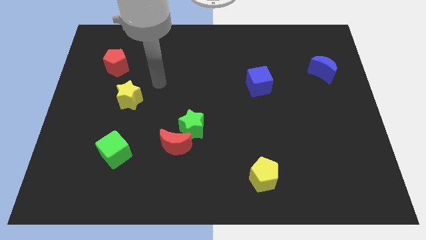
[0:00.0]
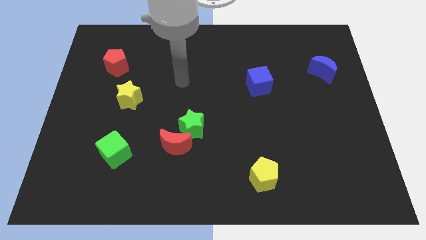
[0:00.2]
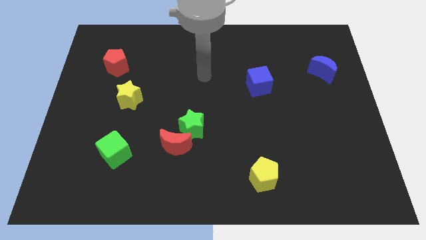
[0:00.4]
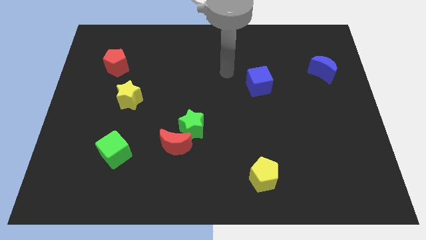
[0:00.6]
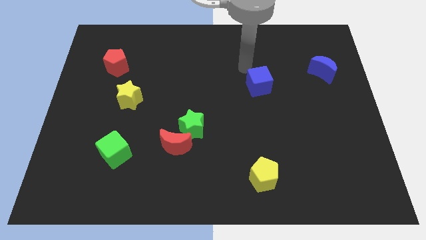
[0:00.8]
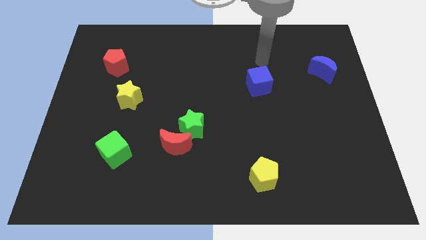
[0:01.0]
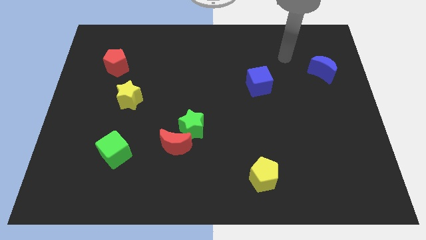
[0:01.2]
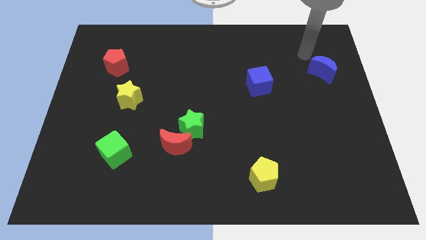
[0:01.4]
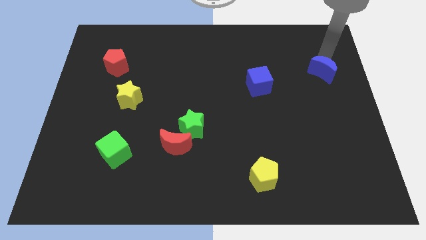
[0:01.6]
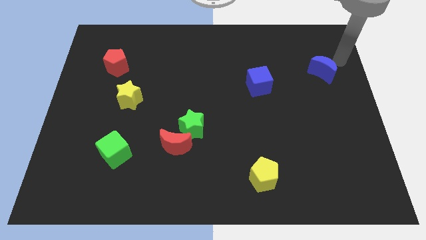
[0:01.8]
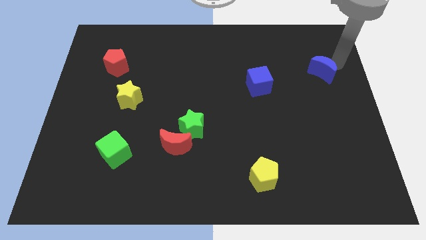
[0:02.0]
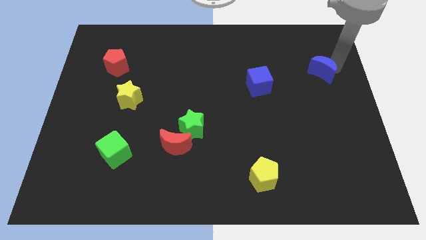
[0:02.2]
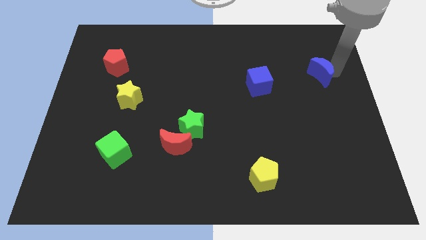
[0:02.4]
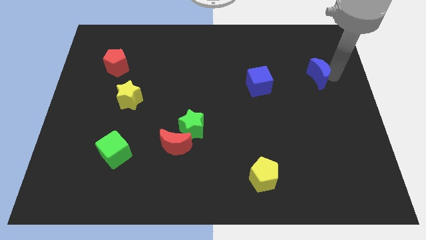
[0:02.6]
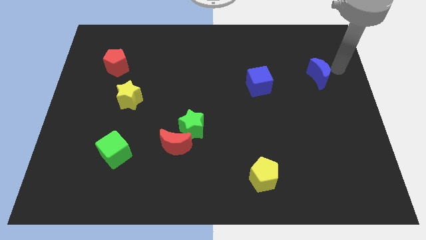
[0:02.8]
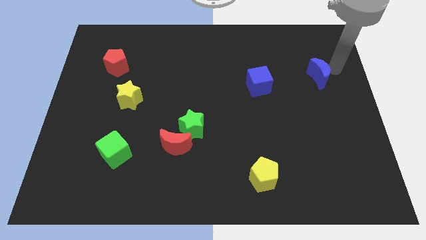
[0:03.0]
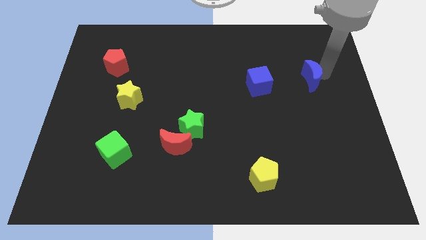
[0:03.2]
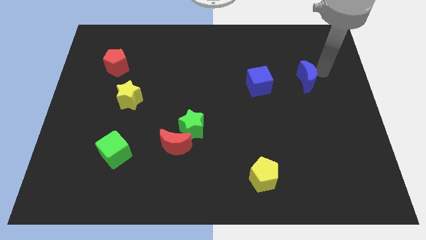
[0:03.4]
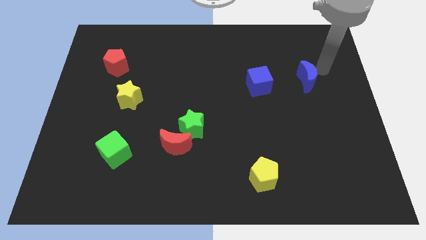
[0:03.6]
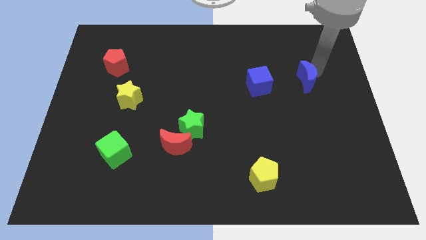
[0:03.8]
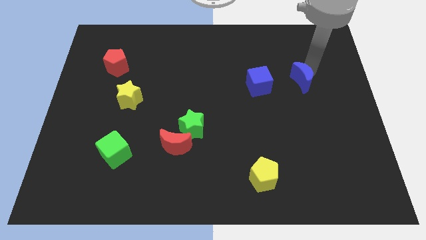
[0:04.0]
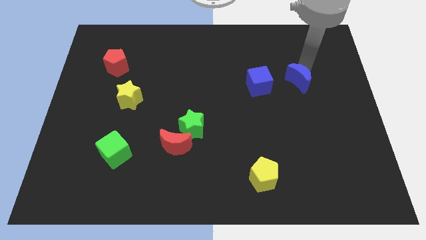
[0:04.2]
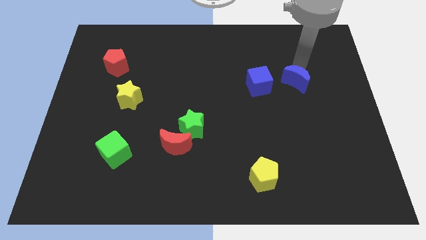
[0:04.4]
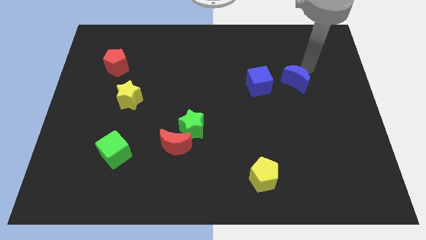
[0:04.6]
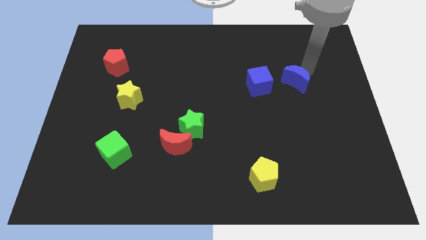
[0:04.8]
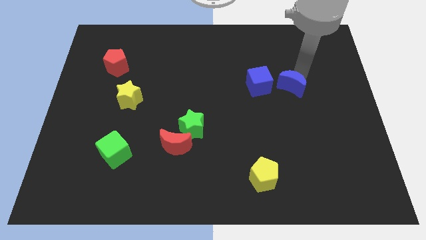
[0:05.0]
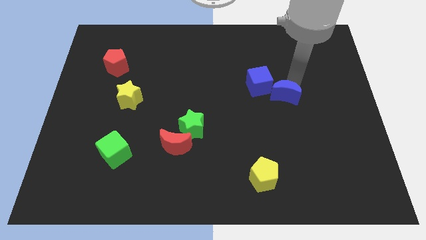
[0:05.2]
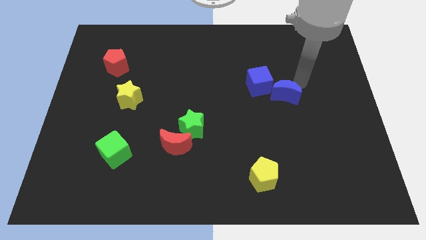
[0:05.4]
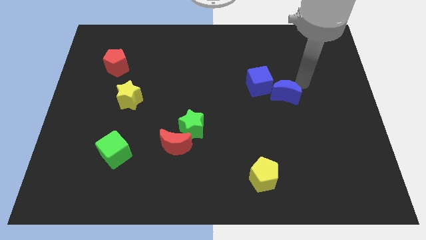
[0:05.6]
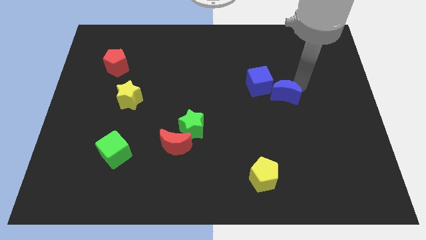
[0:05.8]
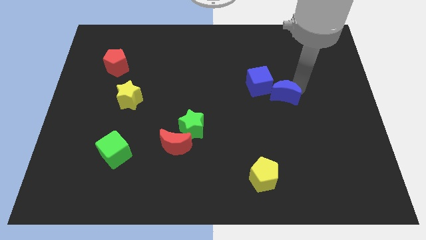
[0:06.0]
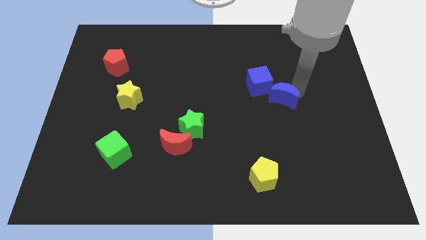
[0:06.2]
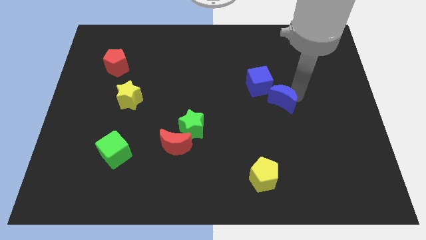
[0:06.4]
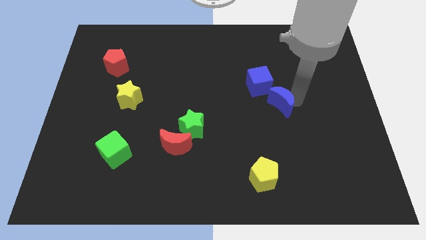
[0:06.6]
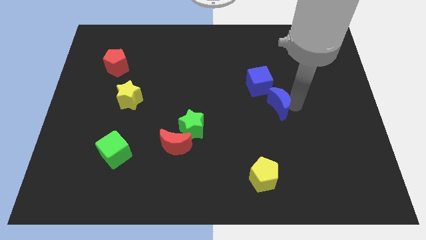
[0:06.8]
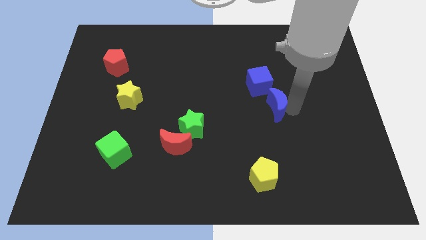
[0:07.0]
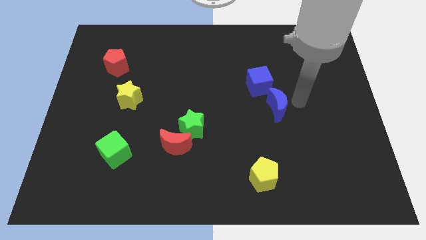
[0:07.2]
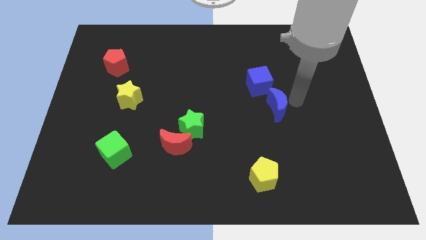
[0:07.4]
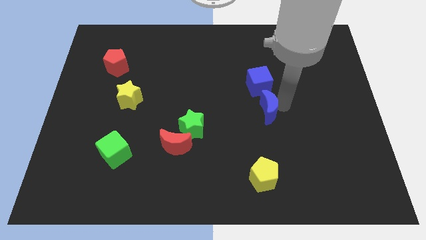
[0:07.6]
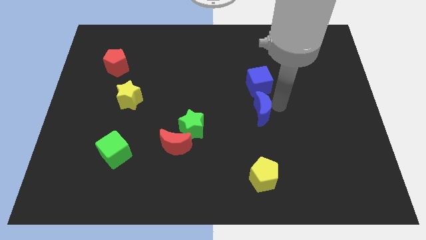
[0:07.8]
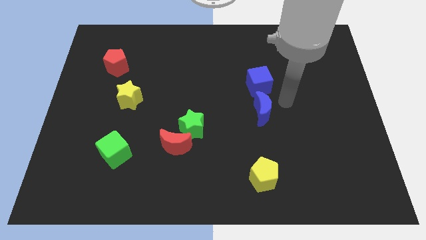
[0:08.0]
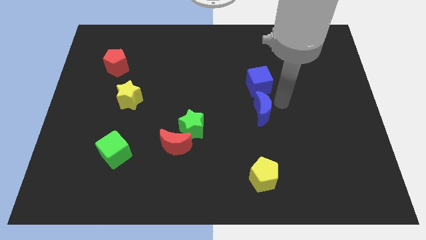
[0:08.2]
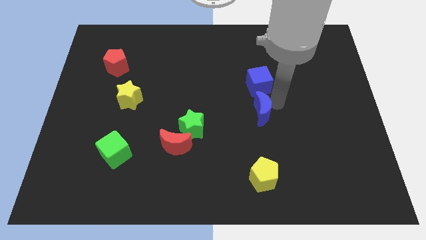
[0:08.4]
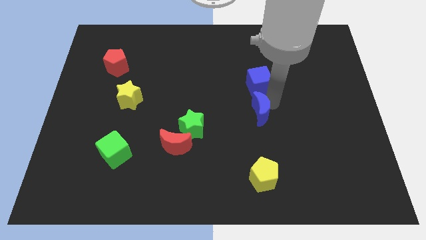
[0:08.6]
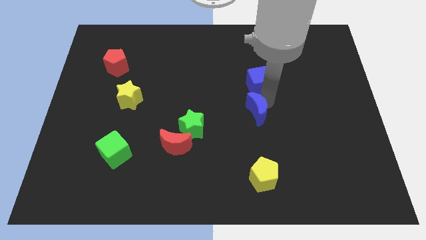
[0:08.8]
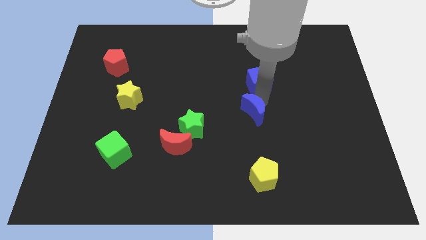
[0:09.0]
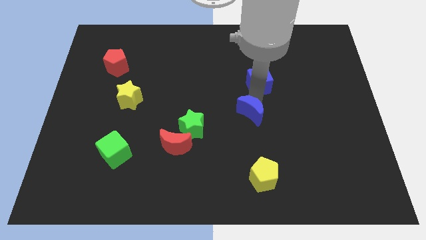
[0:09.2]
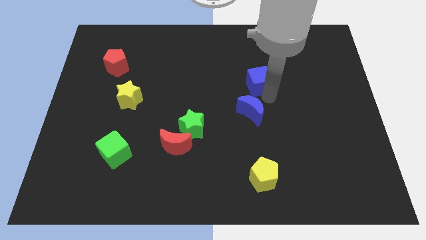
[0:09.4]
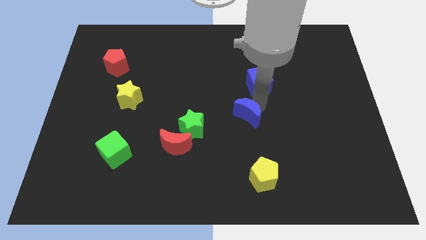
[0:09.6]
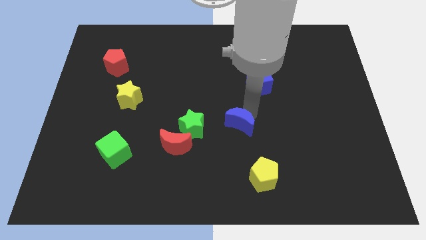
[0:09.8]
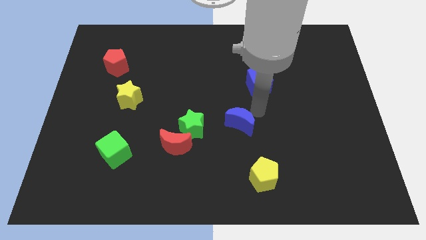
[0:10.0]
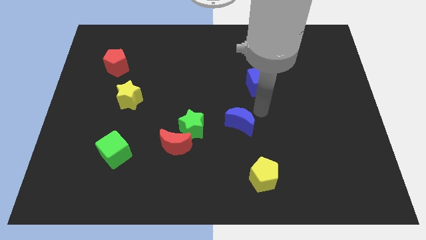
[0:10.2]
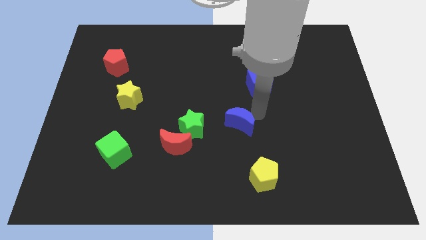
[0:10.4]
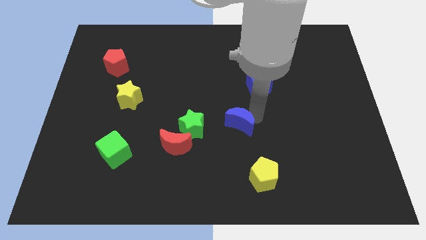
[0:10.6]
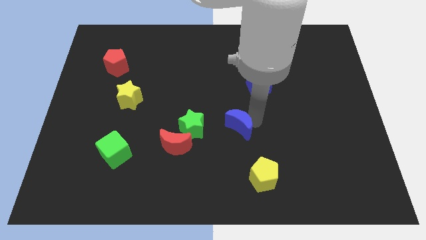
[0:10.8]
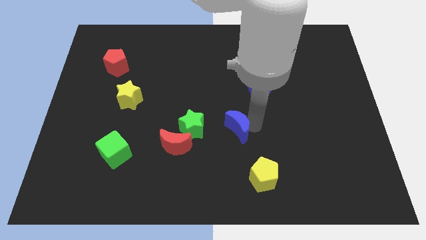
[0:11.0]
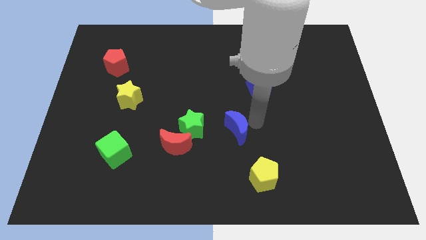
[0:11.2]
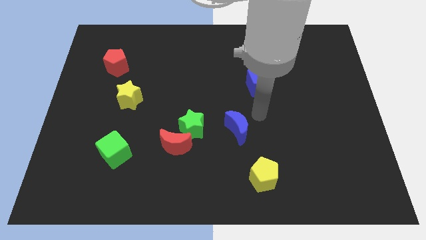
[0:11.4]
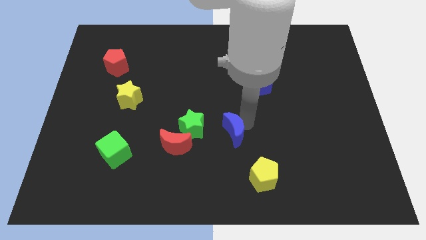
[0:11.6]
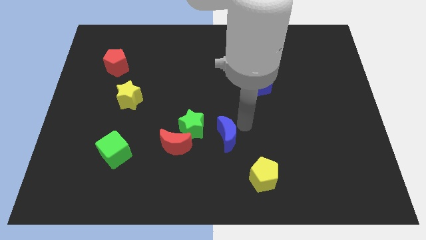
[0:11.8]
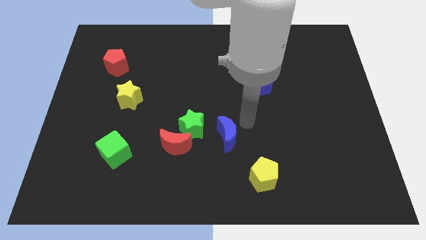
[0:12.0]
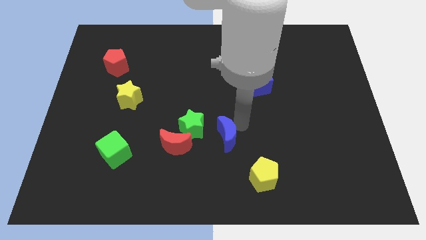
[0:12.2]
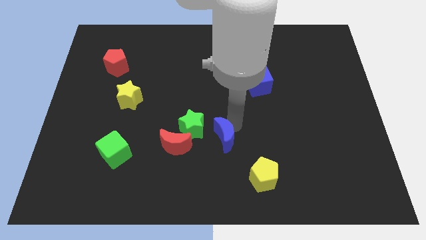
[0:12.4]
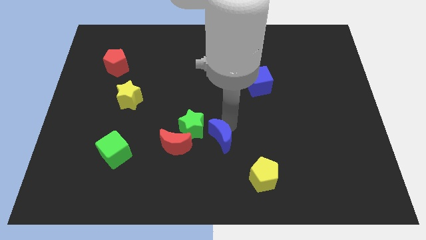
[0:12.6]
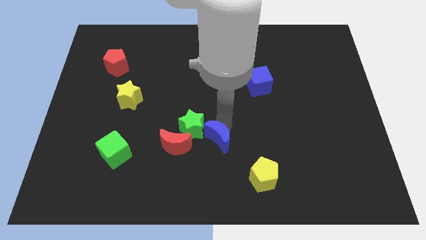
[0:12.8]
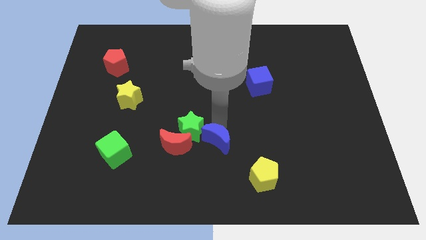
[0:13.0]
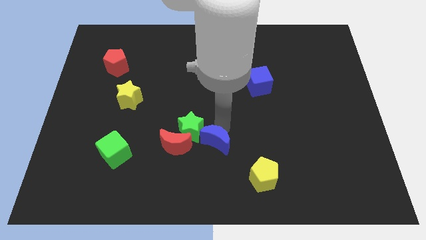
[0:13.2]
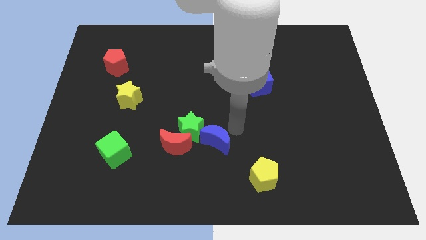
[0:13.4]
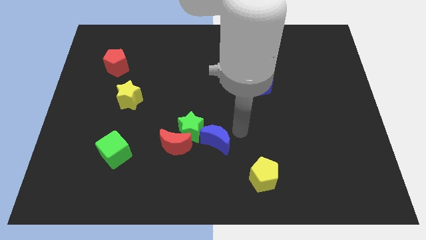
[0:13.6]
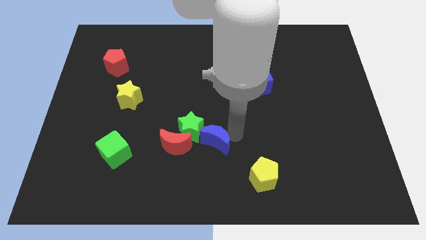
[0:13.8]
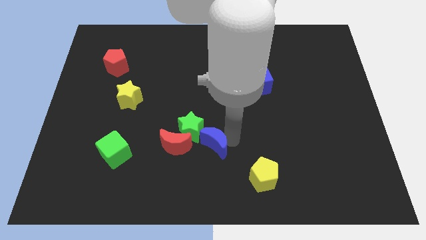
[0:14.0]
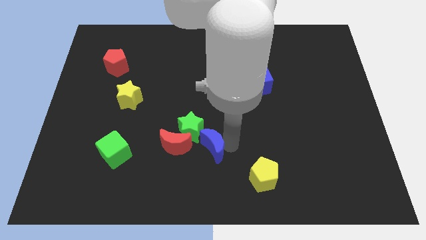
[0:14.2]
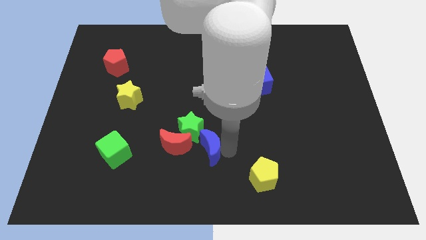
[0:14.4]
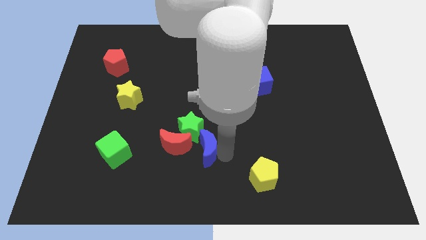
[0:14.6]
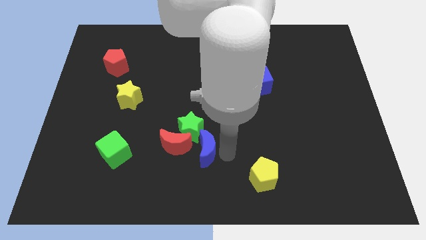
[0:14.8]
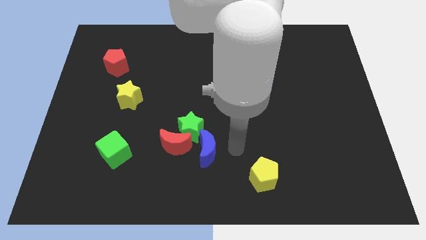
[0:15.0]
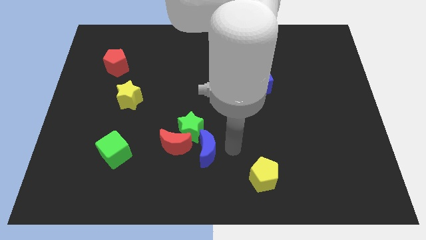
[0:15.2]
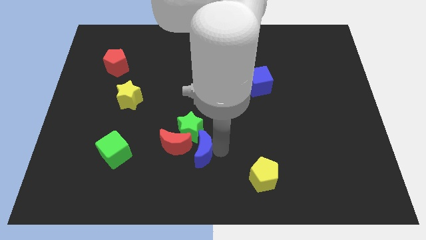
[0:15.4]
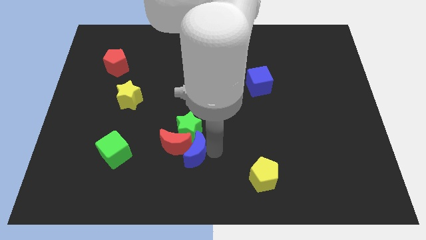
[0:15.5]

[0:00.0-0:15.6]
slide the blue moon to the red moon
